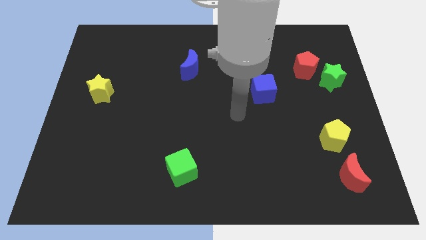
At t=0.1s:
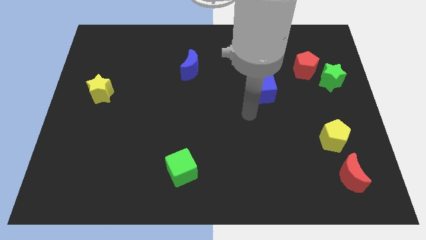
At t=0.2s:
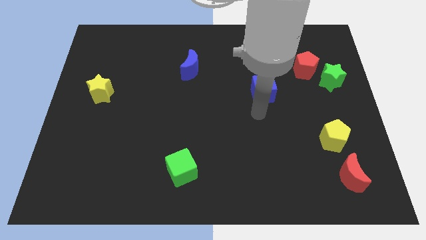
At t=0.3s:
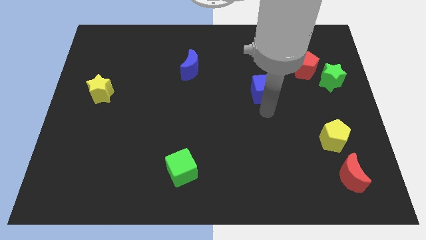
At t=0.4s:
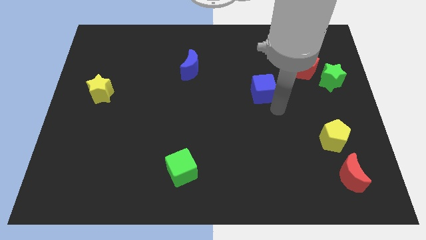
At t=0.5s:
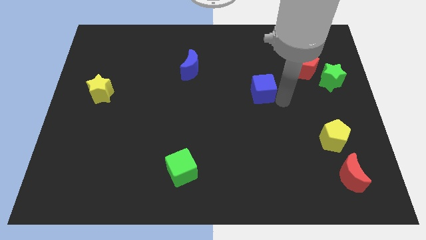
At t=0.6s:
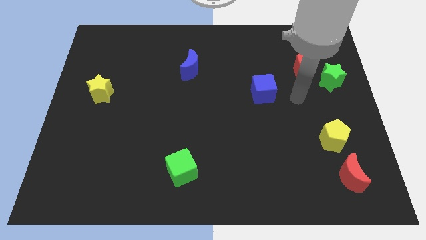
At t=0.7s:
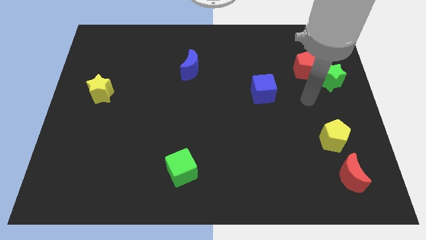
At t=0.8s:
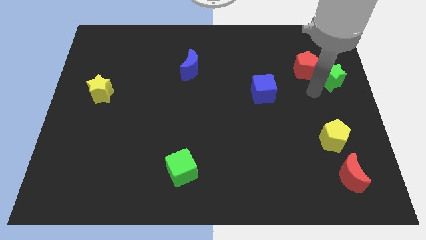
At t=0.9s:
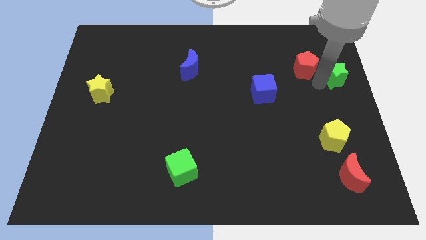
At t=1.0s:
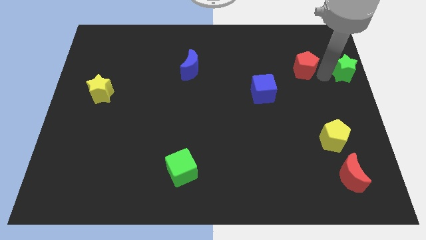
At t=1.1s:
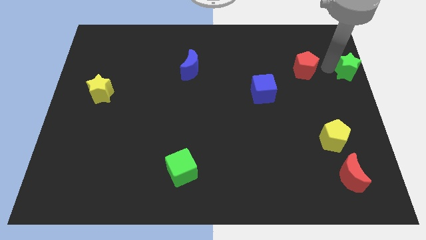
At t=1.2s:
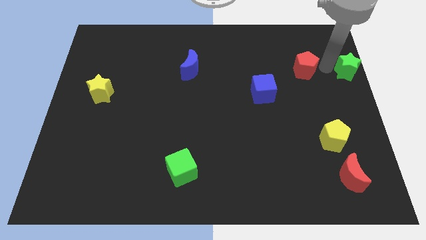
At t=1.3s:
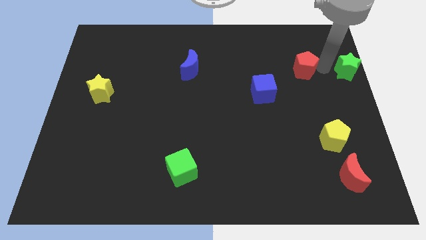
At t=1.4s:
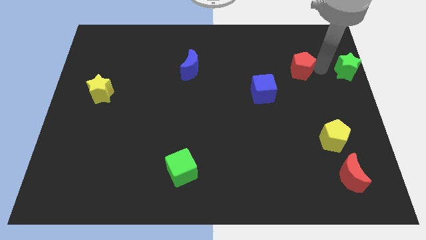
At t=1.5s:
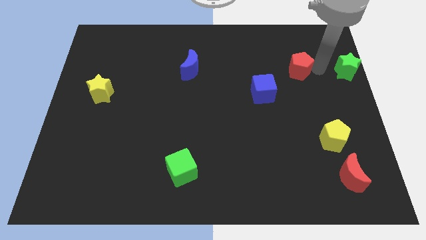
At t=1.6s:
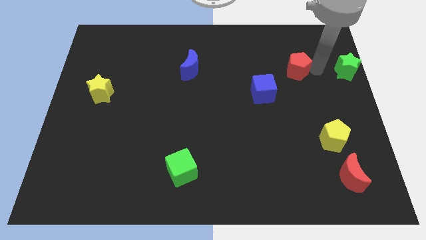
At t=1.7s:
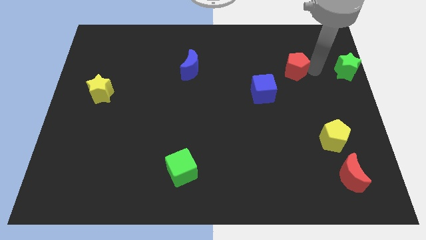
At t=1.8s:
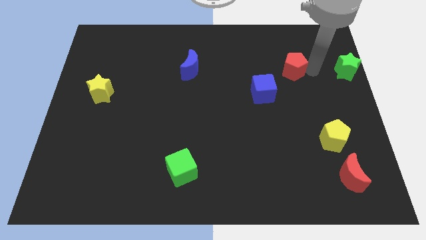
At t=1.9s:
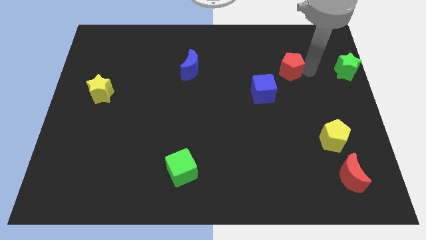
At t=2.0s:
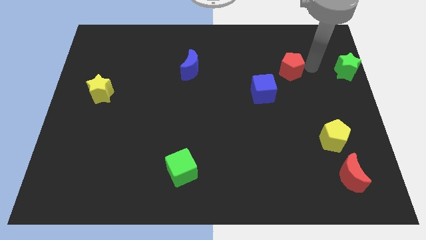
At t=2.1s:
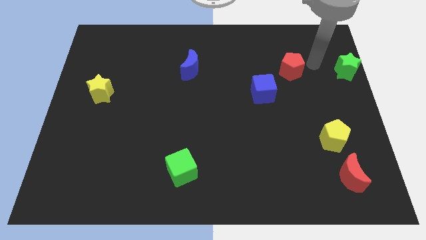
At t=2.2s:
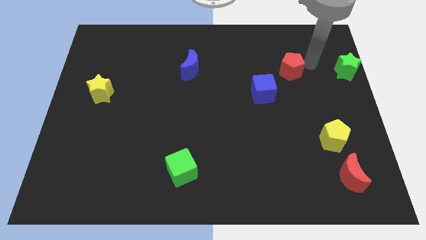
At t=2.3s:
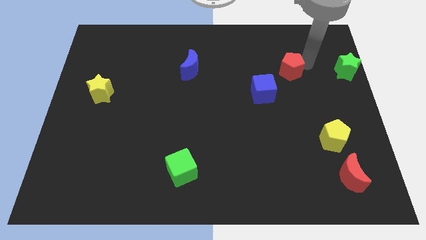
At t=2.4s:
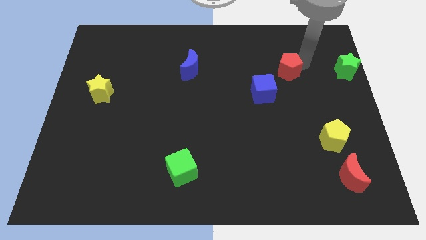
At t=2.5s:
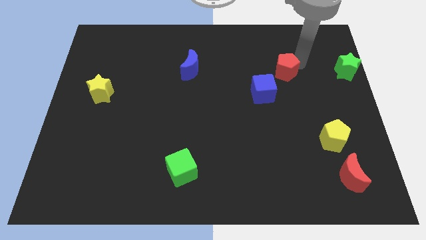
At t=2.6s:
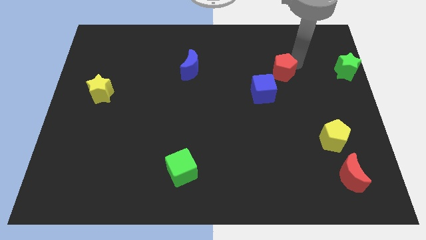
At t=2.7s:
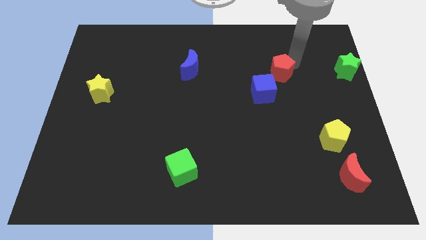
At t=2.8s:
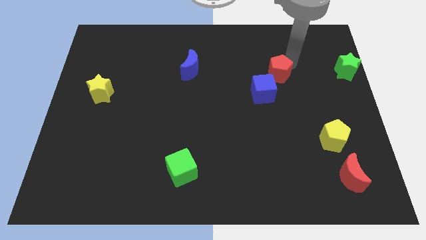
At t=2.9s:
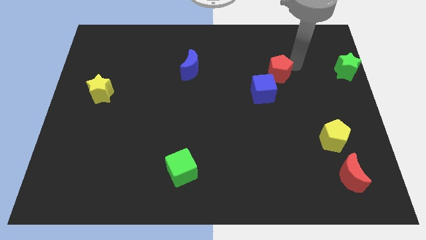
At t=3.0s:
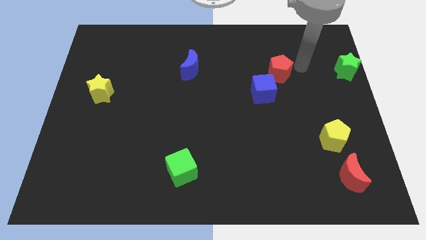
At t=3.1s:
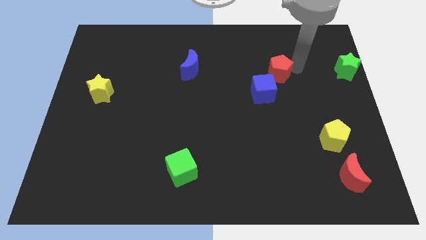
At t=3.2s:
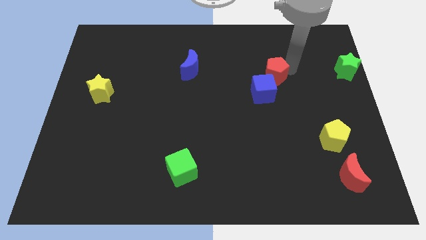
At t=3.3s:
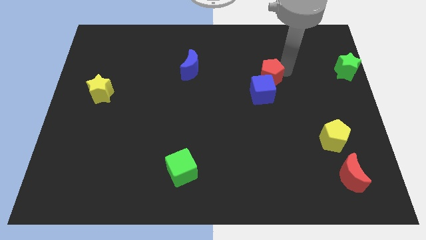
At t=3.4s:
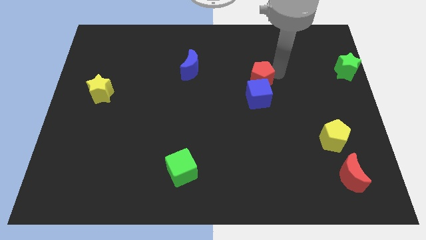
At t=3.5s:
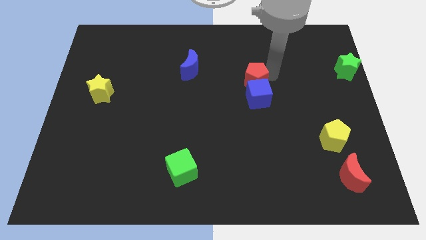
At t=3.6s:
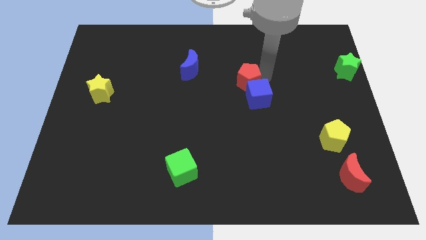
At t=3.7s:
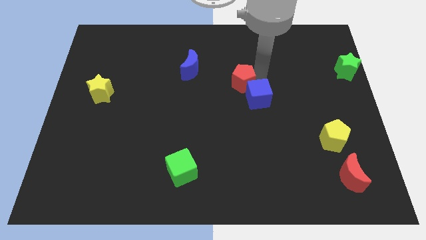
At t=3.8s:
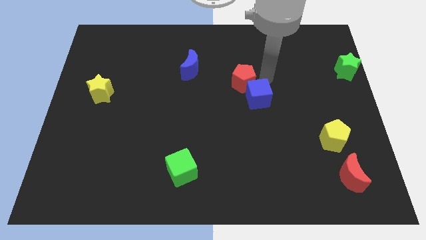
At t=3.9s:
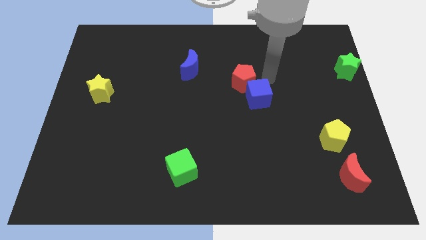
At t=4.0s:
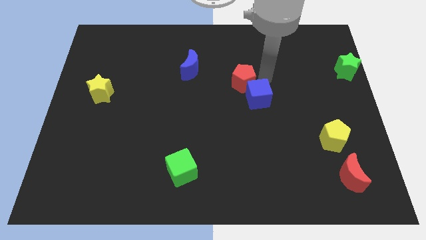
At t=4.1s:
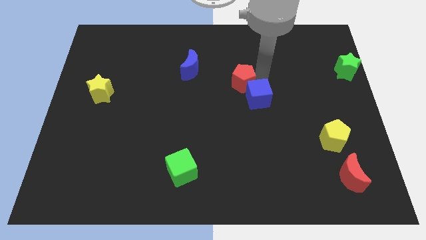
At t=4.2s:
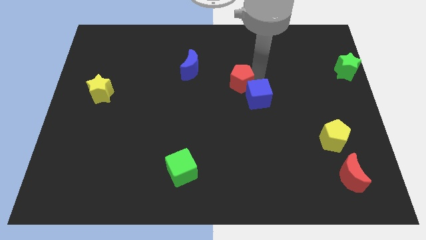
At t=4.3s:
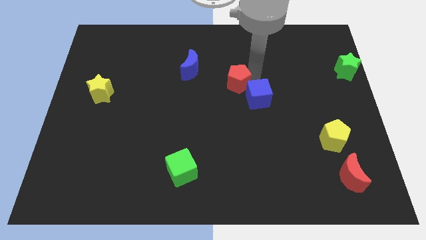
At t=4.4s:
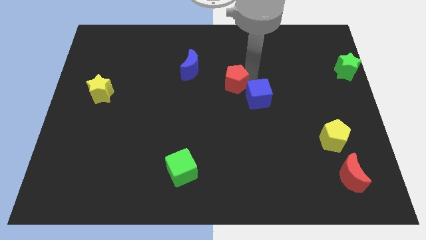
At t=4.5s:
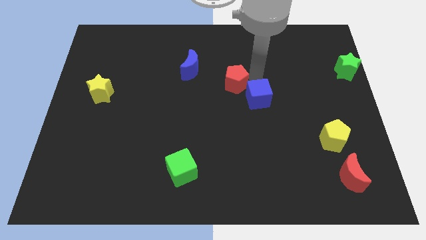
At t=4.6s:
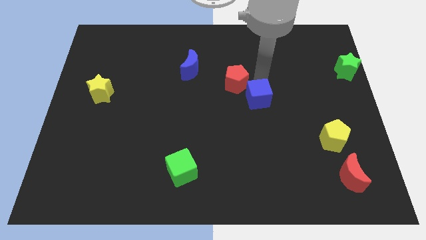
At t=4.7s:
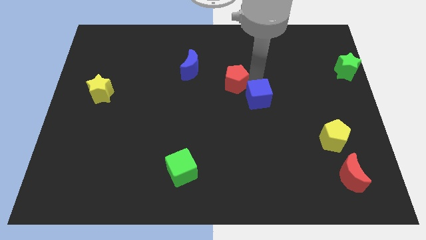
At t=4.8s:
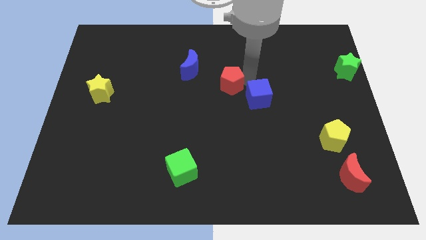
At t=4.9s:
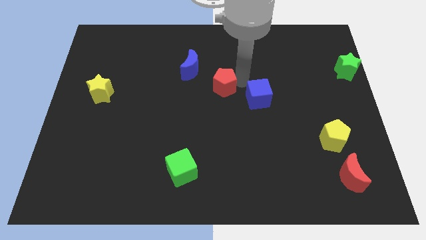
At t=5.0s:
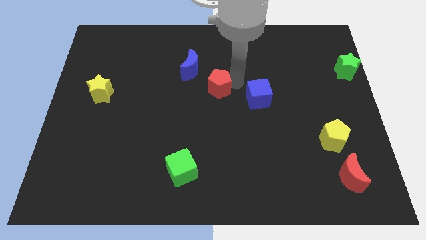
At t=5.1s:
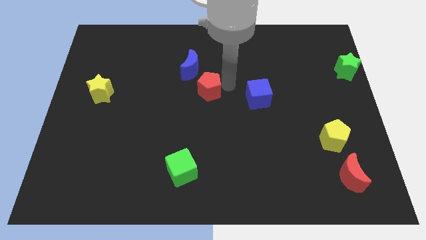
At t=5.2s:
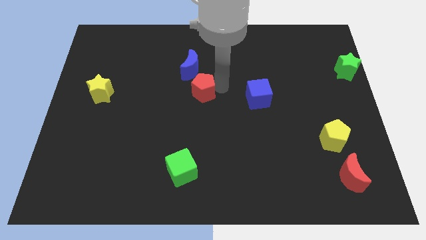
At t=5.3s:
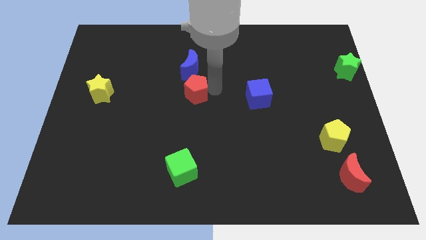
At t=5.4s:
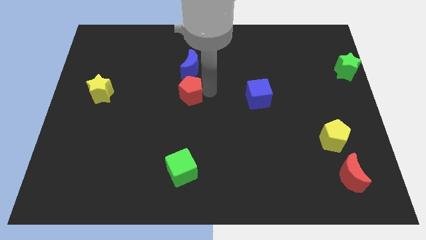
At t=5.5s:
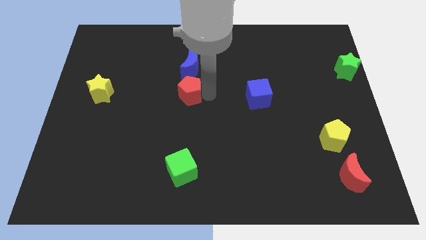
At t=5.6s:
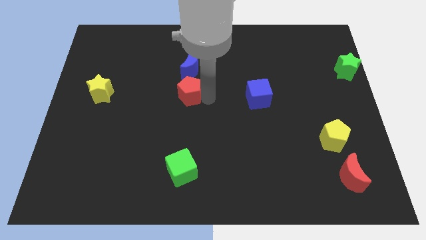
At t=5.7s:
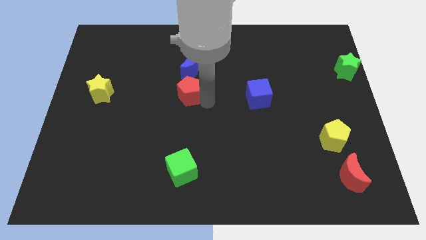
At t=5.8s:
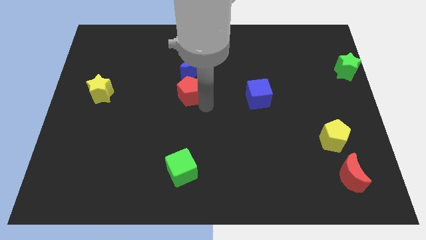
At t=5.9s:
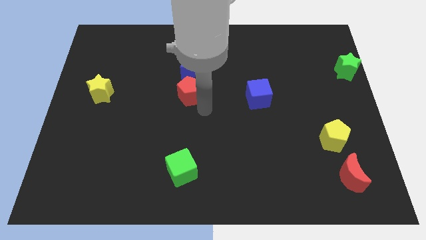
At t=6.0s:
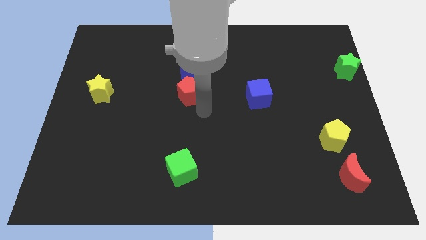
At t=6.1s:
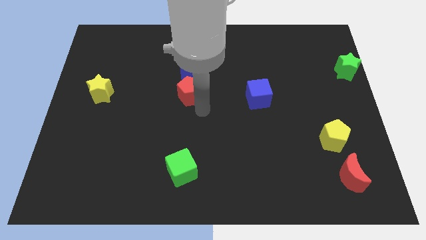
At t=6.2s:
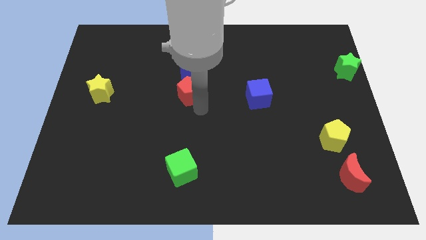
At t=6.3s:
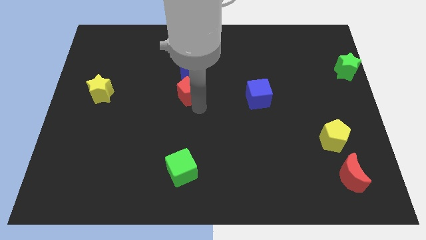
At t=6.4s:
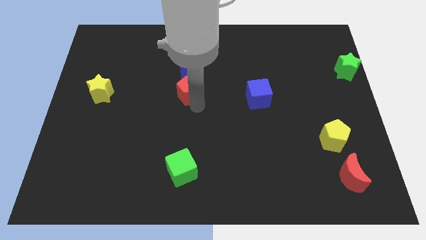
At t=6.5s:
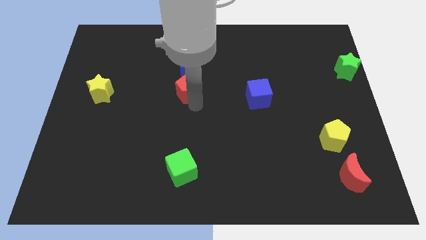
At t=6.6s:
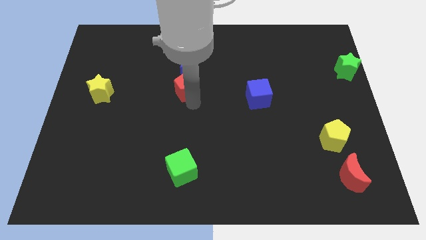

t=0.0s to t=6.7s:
push the red pentagon to the bottom left side of the blue moon

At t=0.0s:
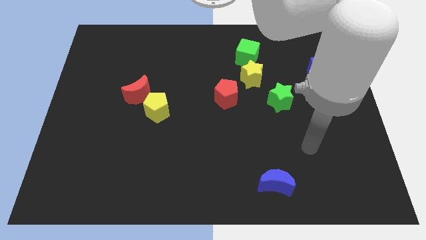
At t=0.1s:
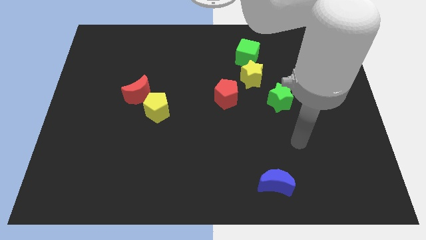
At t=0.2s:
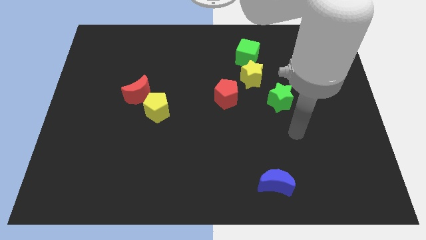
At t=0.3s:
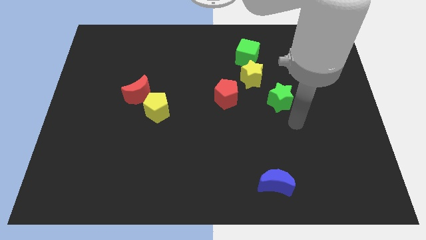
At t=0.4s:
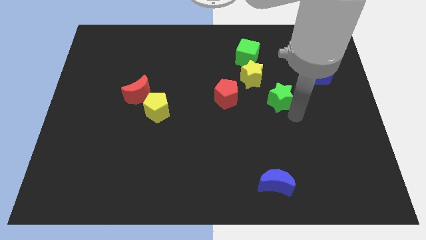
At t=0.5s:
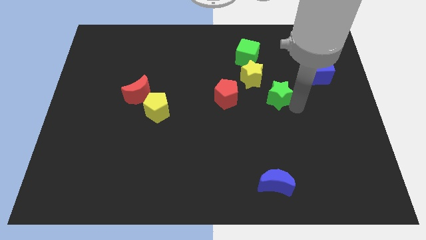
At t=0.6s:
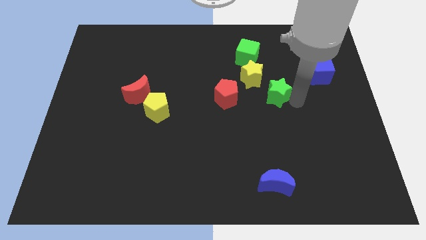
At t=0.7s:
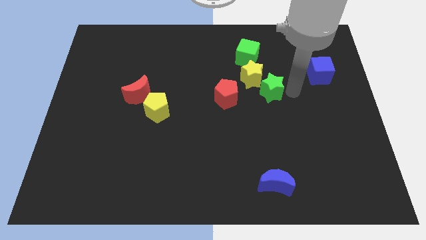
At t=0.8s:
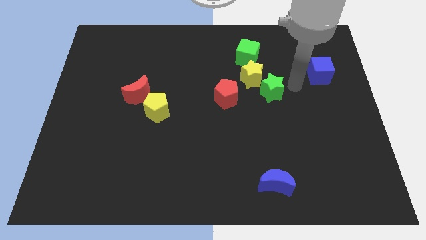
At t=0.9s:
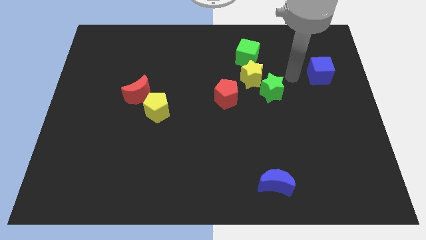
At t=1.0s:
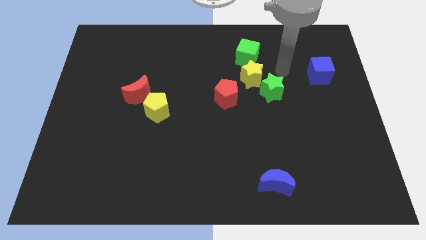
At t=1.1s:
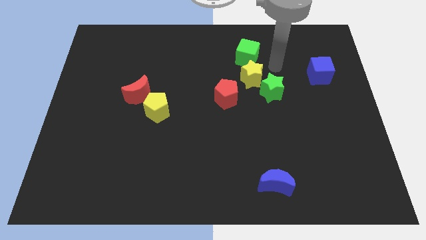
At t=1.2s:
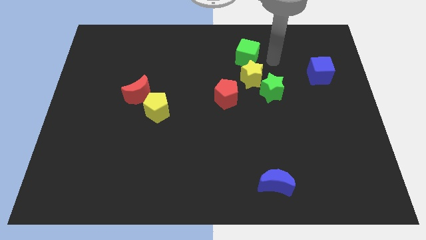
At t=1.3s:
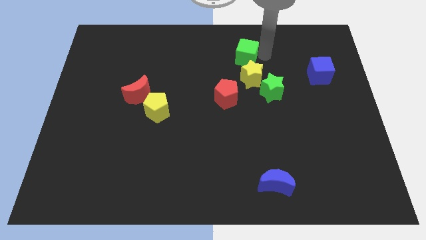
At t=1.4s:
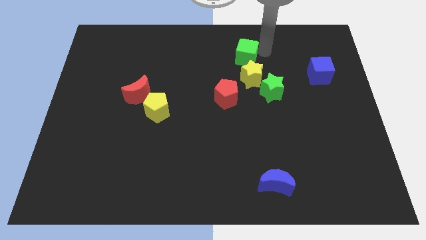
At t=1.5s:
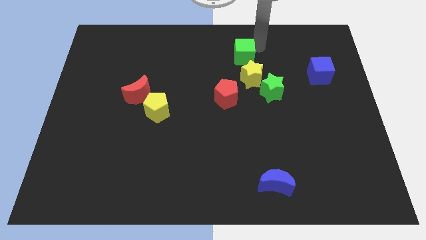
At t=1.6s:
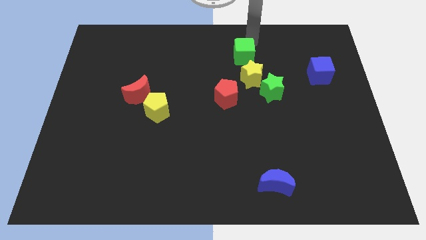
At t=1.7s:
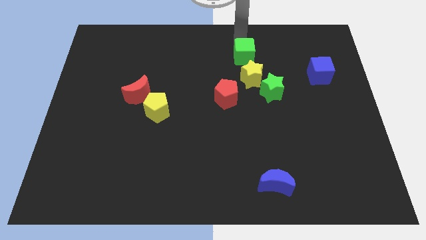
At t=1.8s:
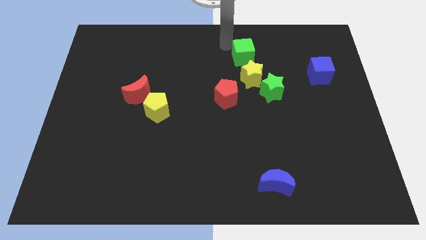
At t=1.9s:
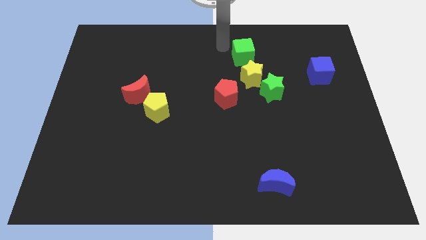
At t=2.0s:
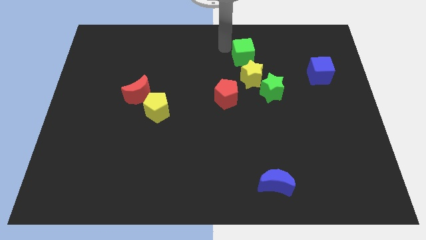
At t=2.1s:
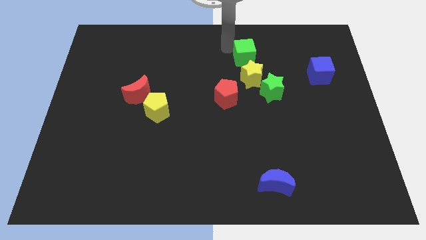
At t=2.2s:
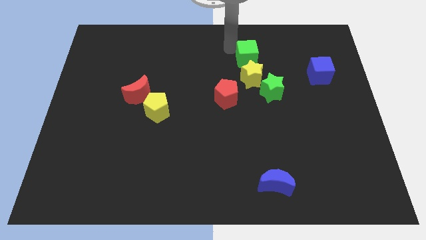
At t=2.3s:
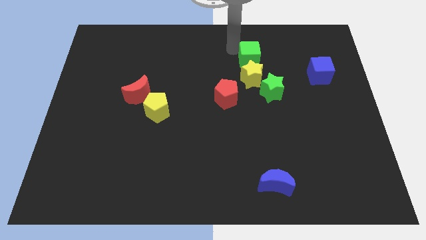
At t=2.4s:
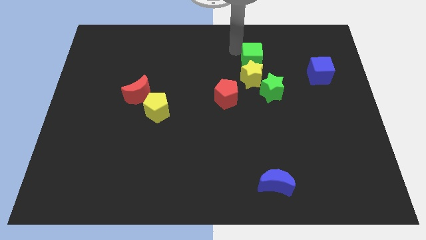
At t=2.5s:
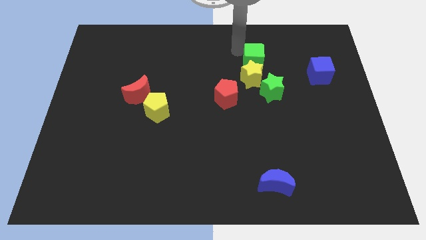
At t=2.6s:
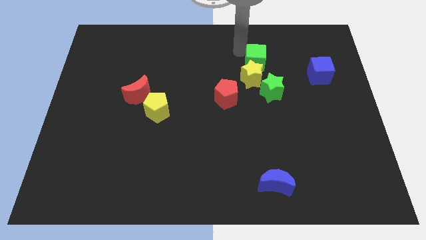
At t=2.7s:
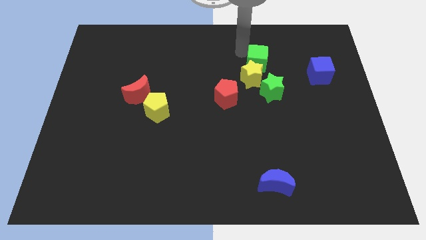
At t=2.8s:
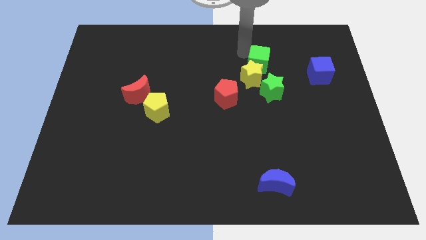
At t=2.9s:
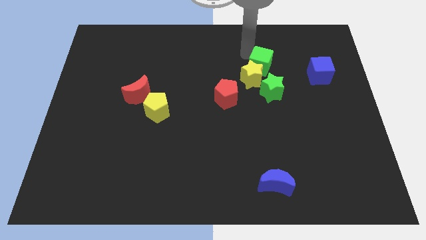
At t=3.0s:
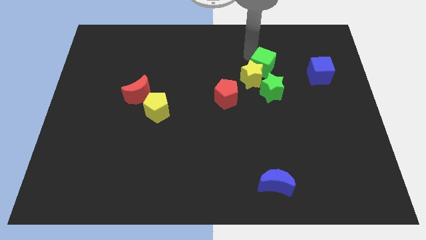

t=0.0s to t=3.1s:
move the green cube to the right side of the yellow star
